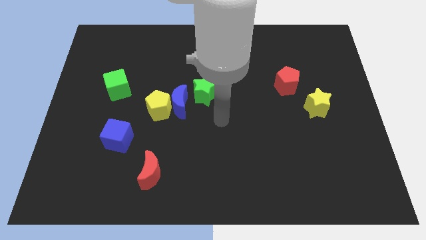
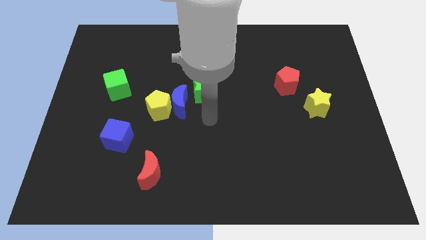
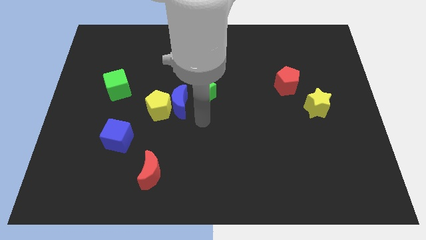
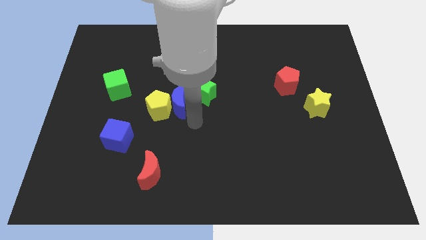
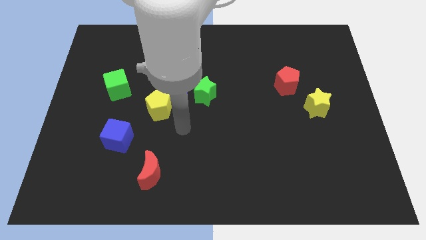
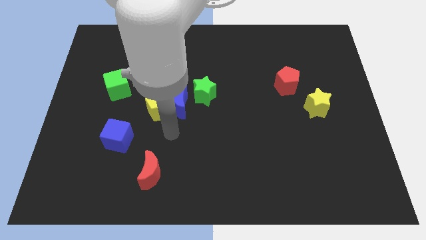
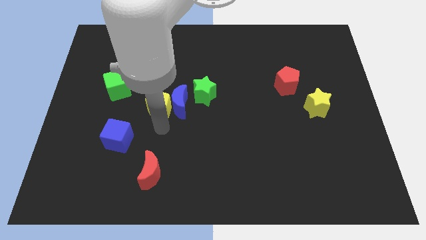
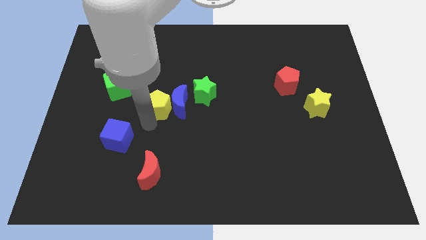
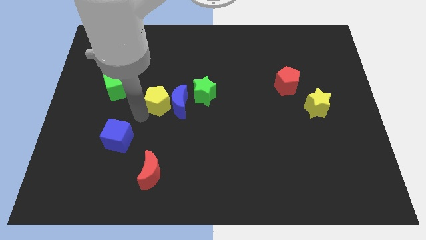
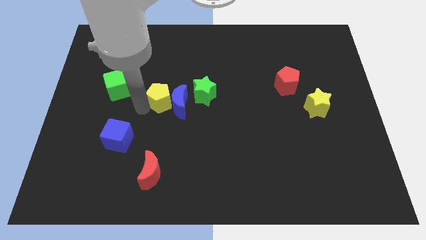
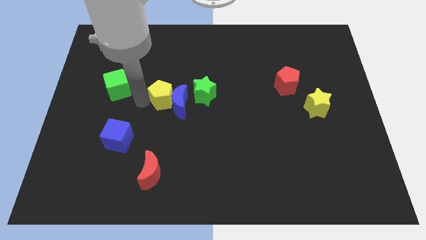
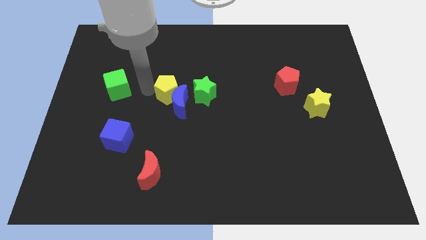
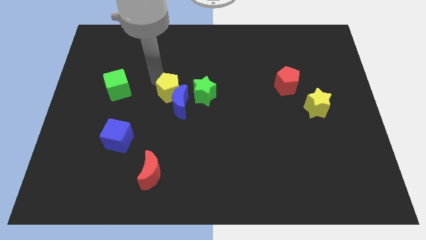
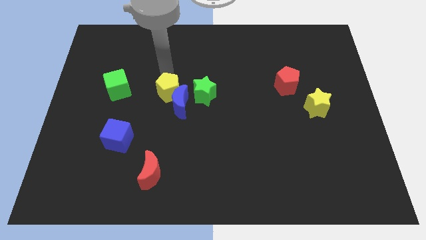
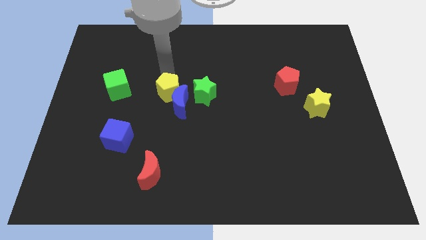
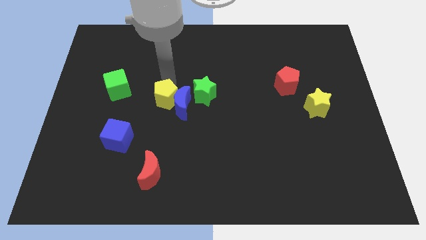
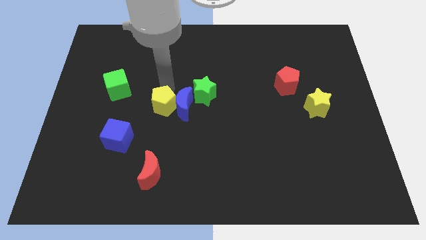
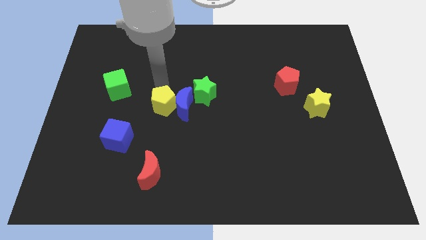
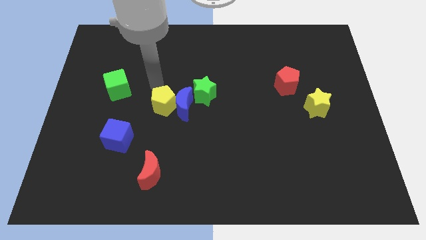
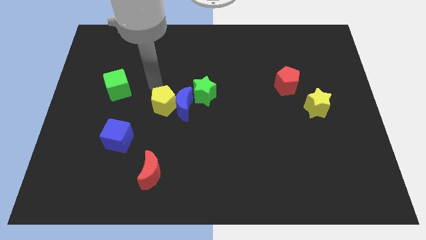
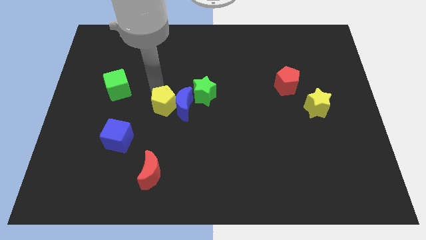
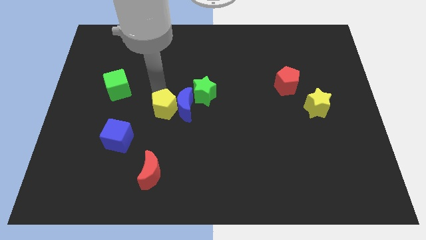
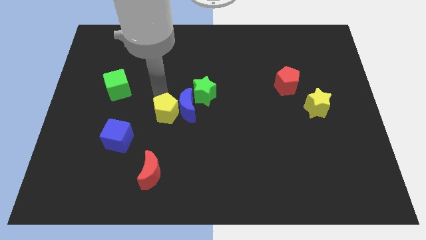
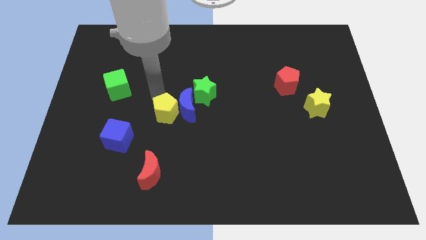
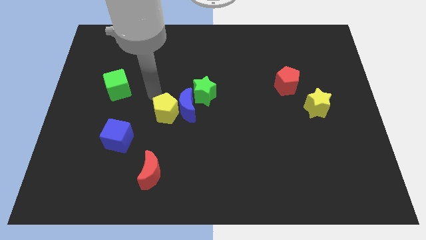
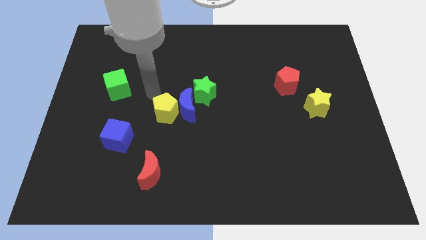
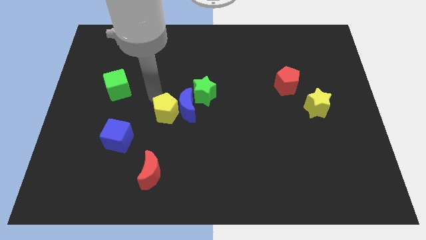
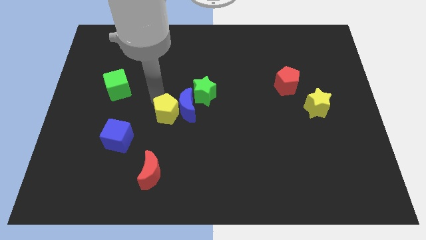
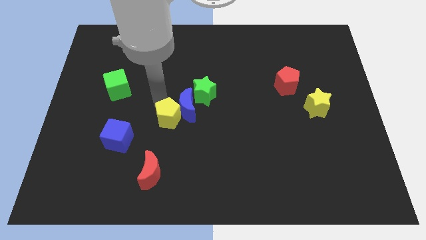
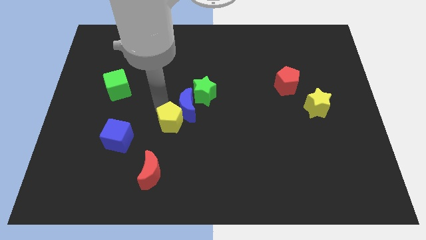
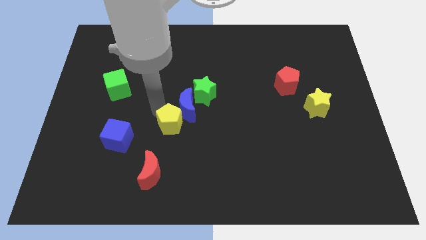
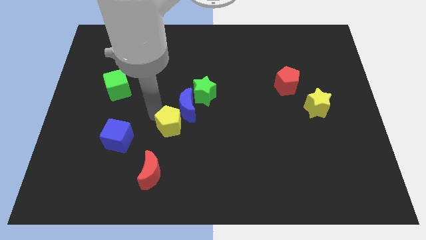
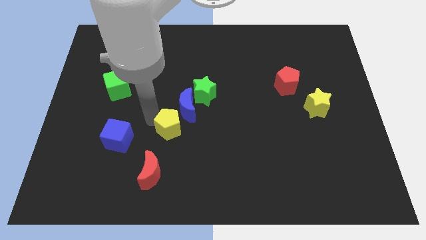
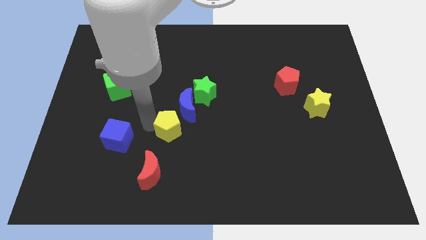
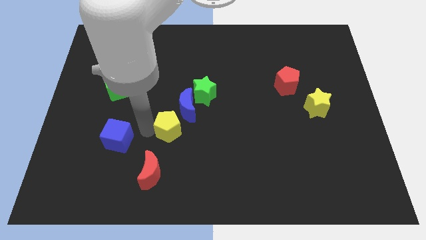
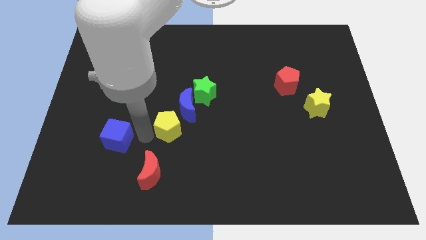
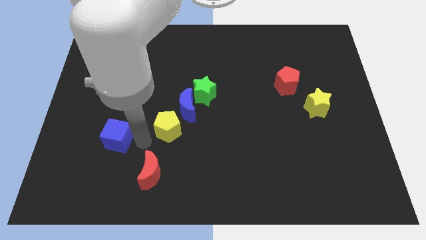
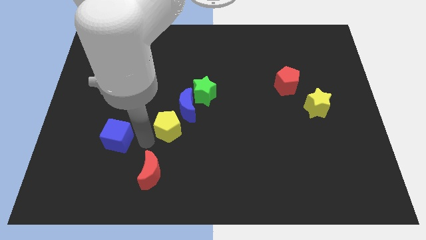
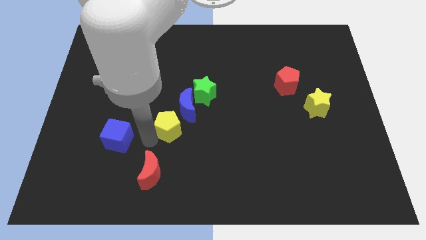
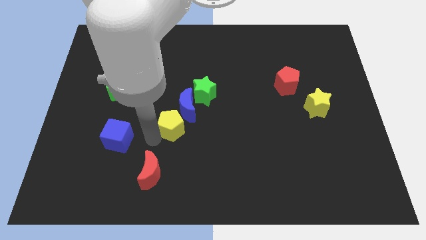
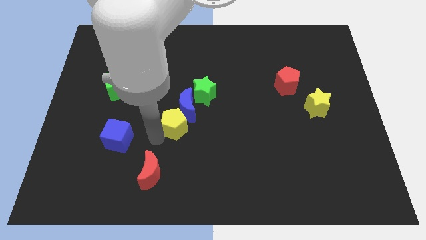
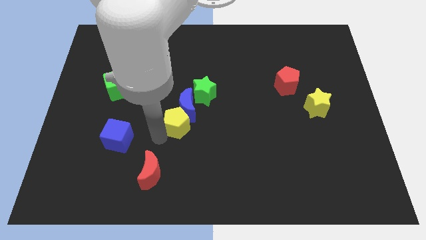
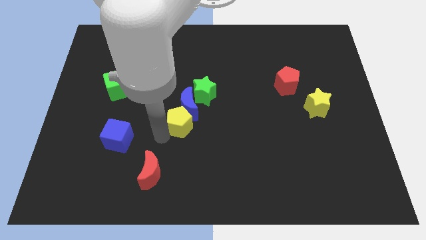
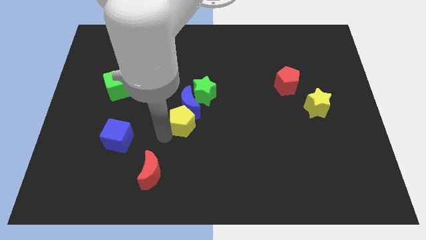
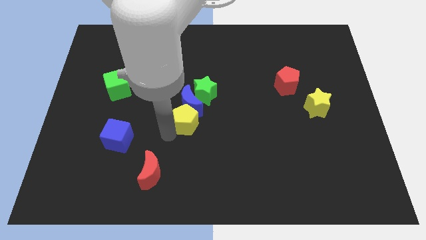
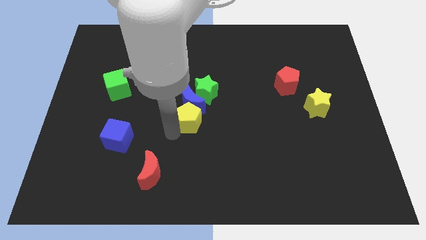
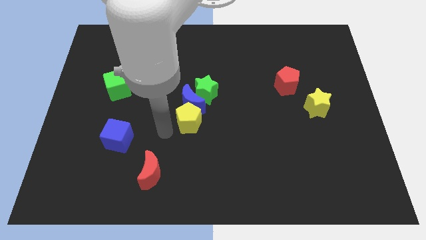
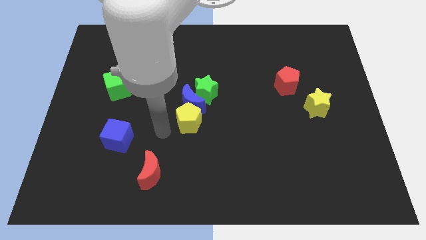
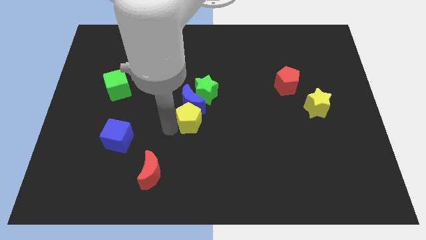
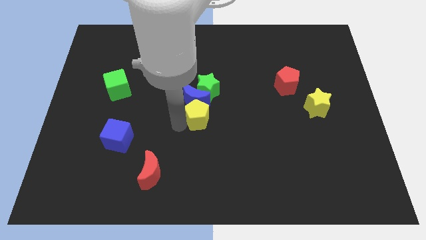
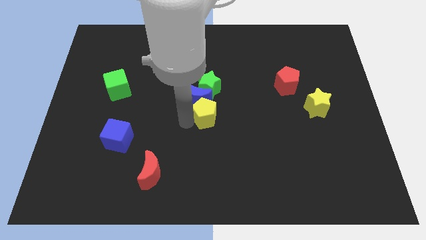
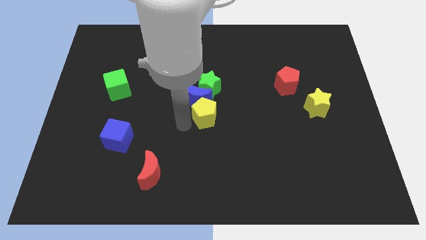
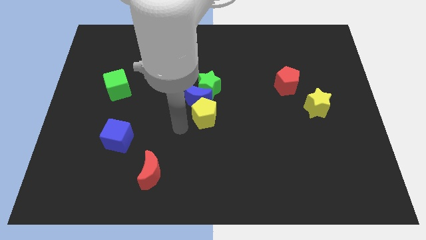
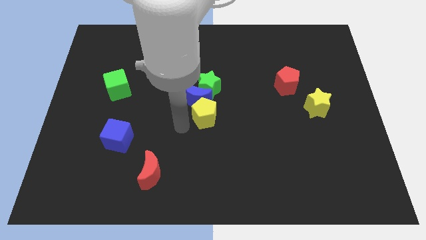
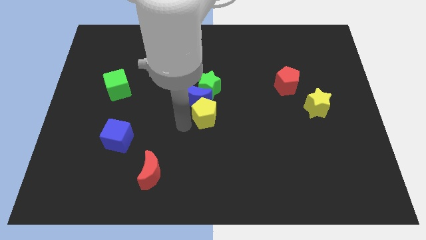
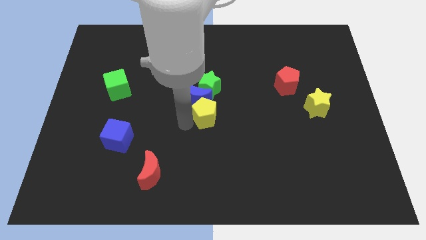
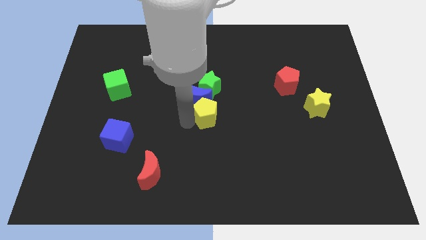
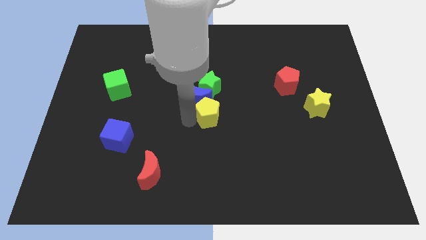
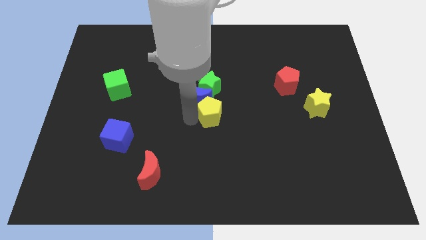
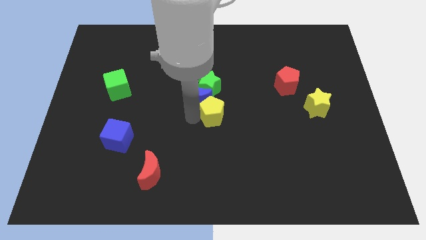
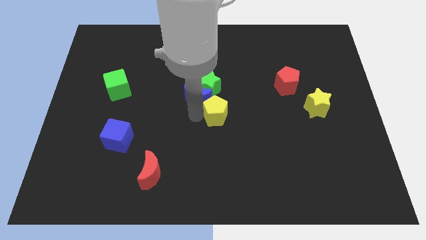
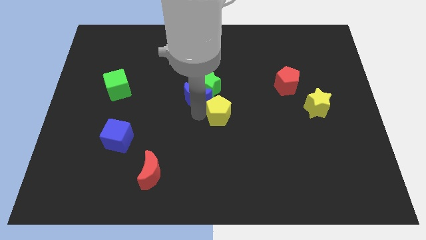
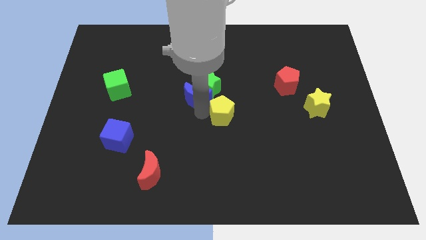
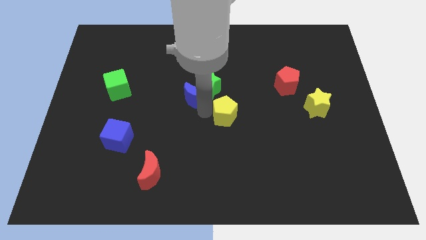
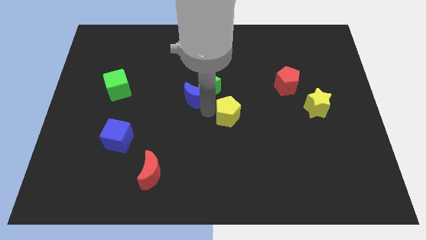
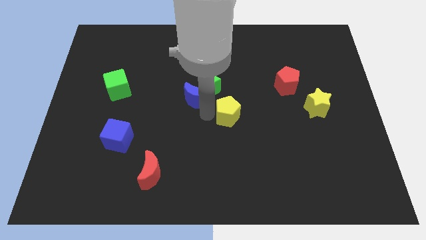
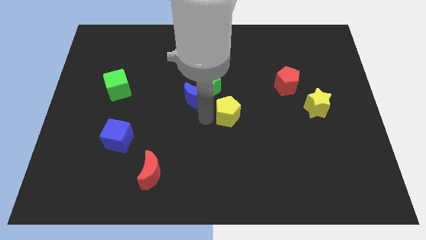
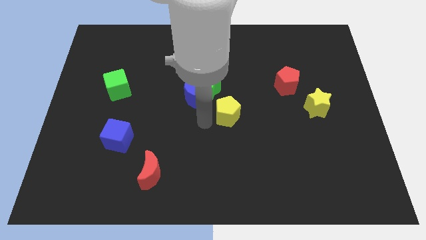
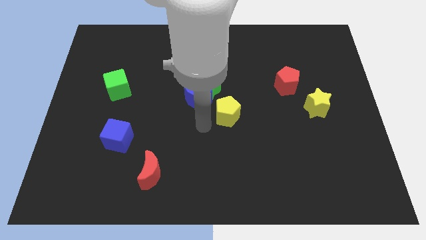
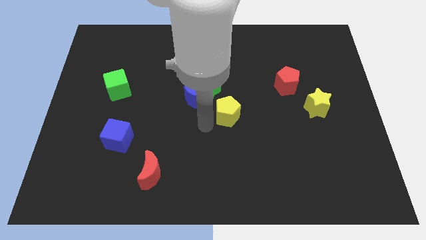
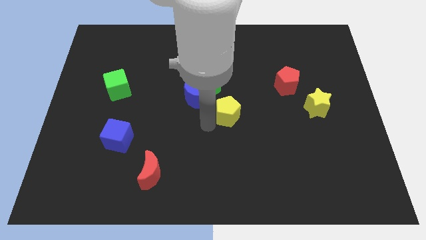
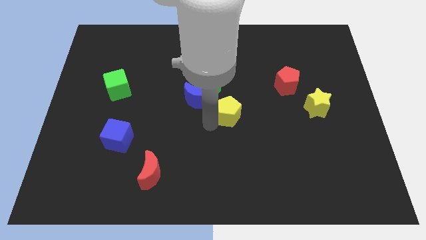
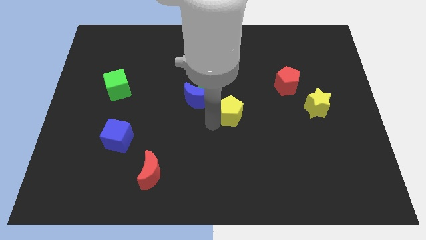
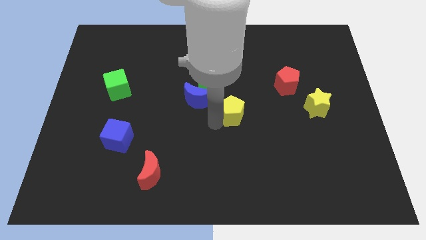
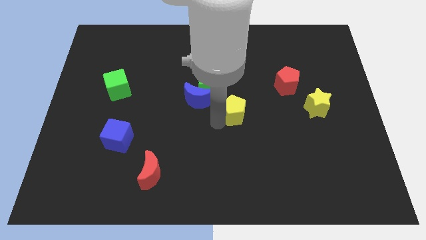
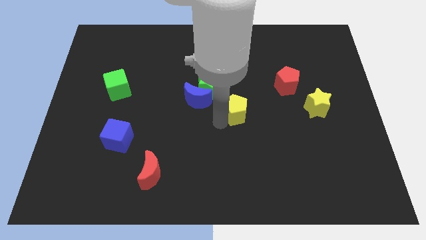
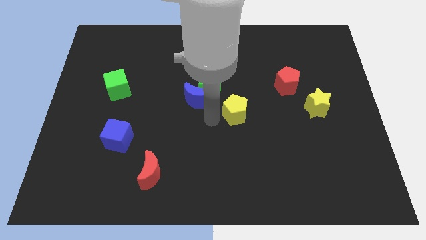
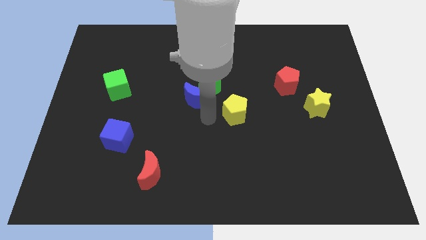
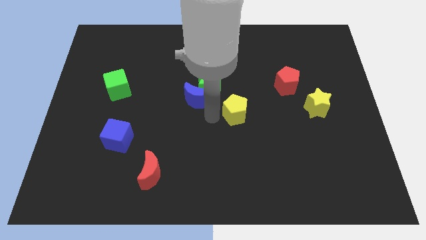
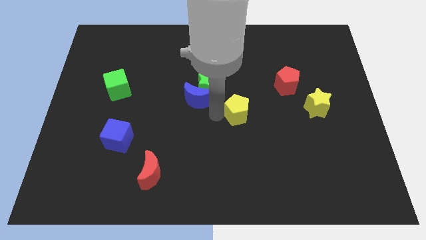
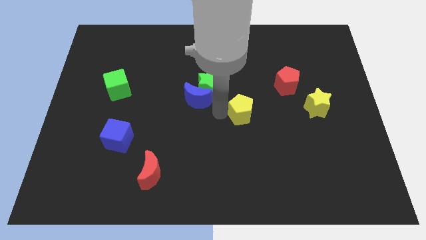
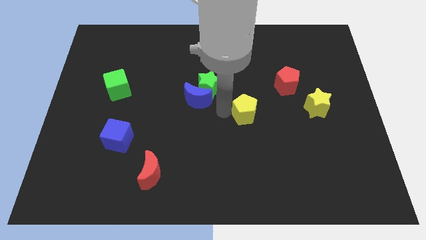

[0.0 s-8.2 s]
push the yellow pentagon right
